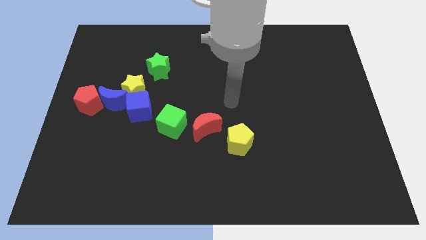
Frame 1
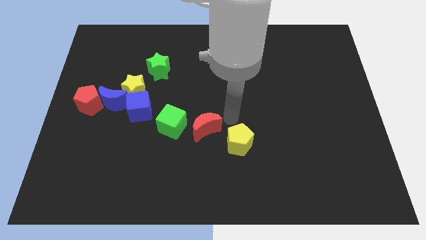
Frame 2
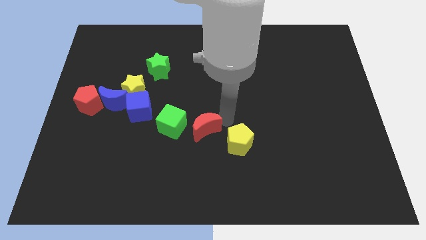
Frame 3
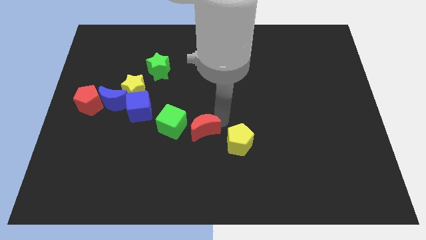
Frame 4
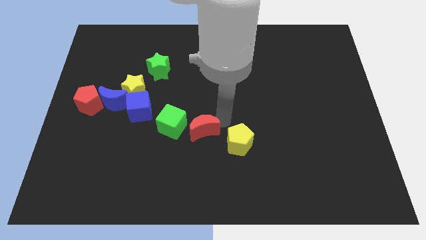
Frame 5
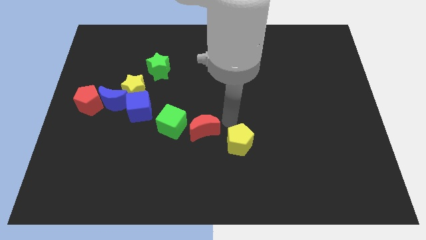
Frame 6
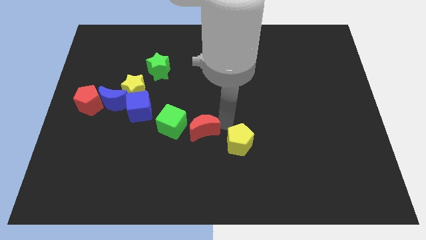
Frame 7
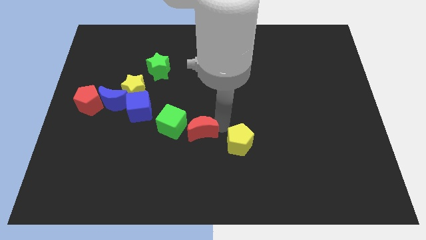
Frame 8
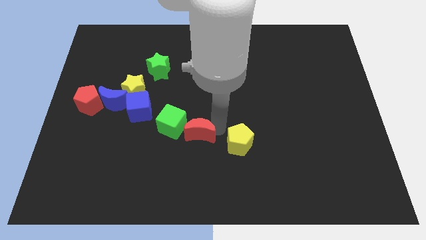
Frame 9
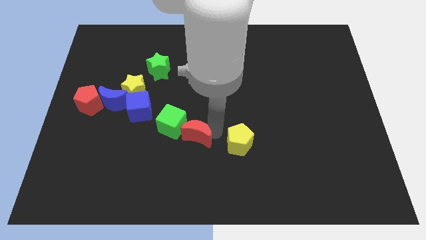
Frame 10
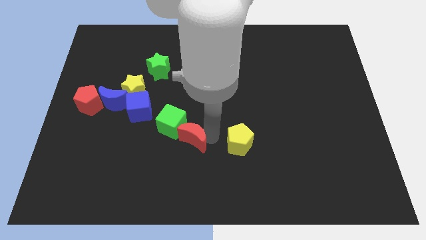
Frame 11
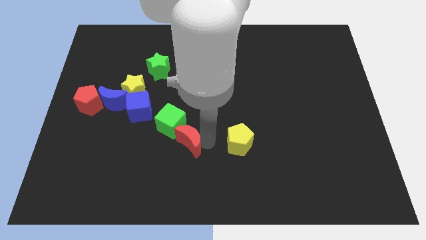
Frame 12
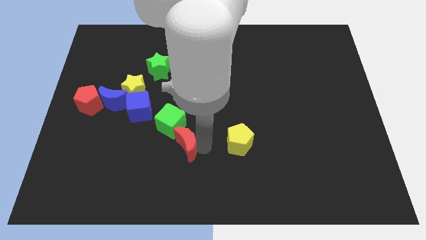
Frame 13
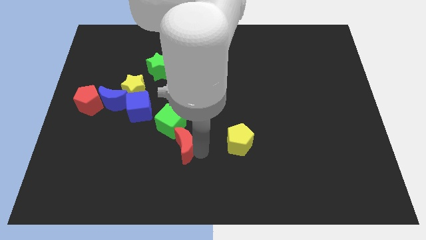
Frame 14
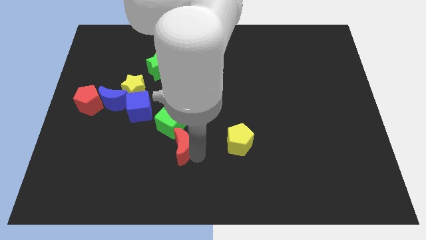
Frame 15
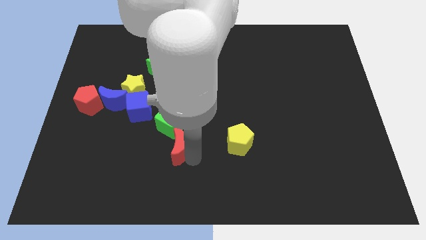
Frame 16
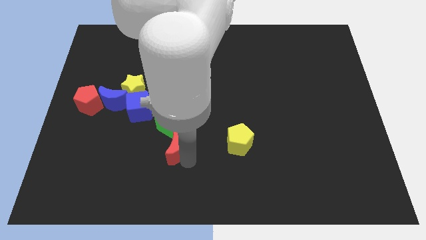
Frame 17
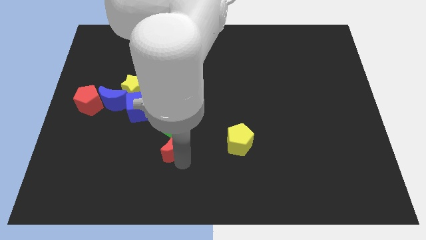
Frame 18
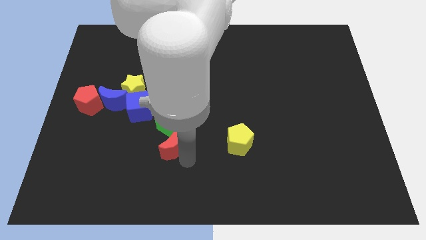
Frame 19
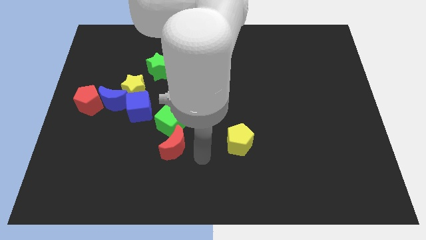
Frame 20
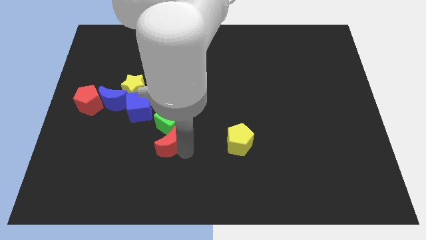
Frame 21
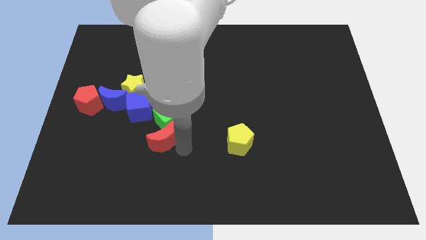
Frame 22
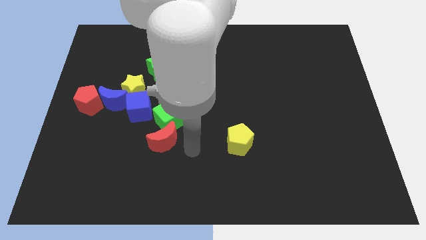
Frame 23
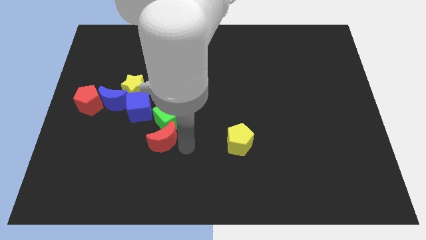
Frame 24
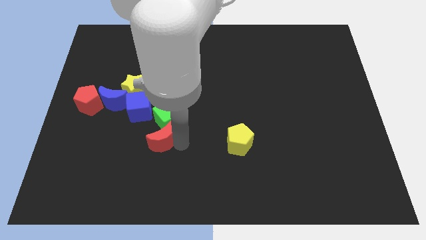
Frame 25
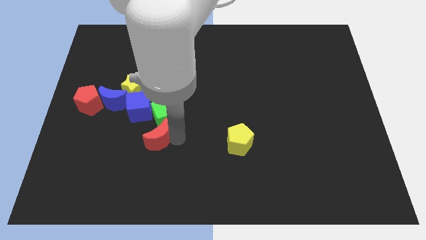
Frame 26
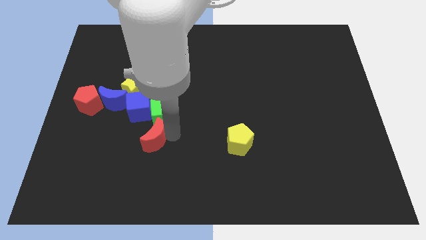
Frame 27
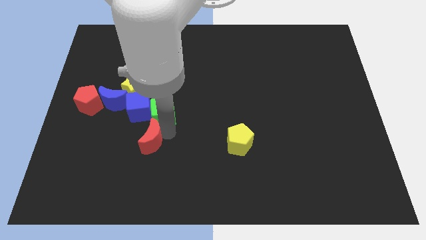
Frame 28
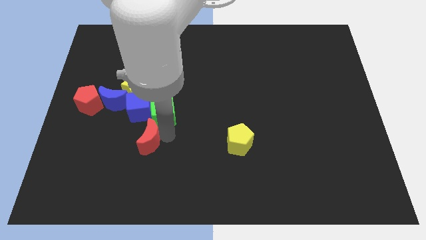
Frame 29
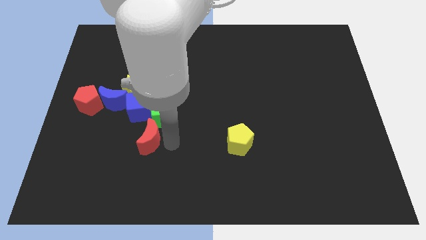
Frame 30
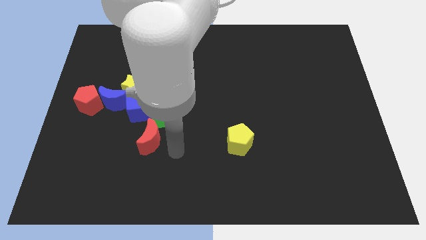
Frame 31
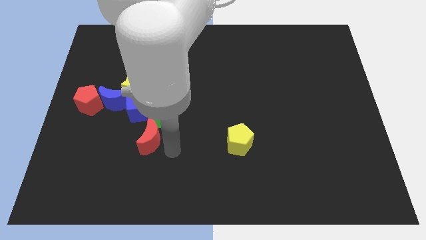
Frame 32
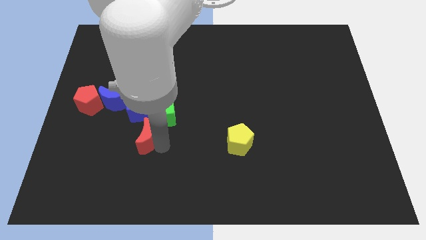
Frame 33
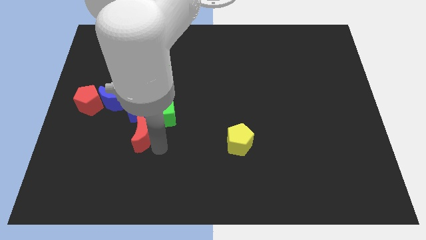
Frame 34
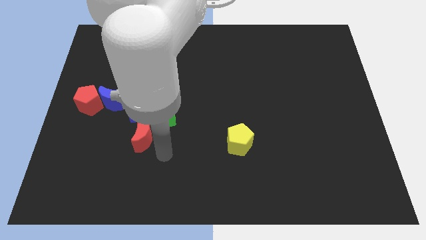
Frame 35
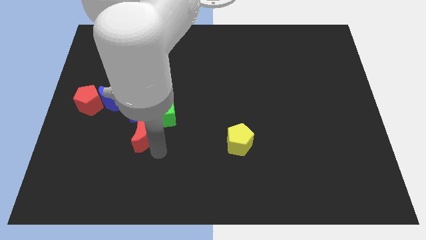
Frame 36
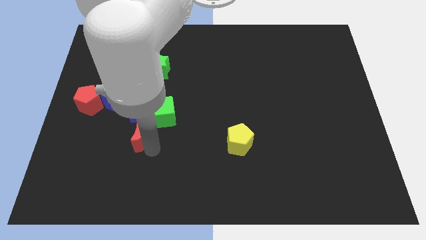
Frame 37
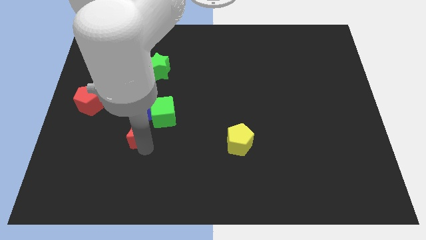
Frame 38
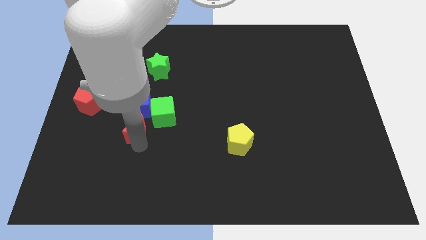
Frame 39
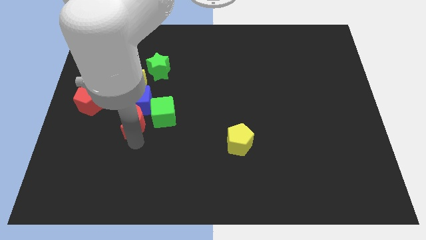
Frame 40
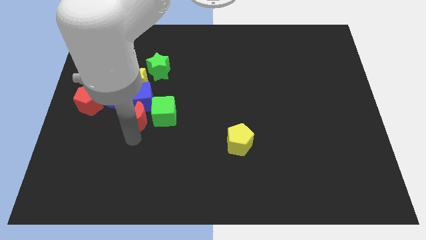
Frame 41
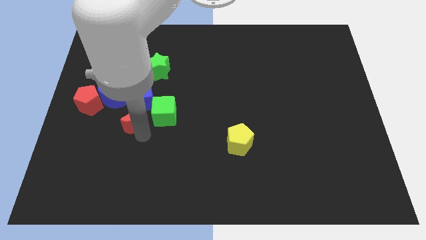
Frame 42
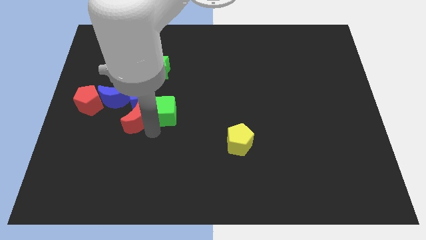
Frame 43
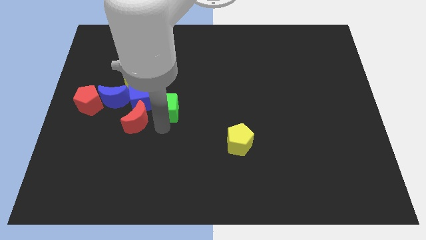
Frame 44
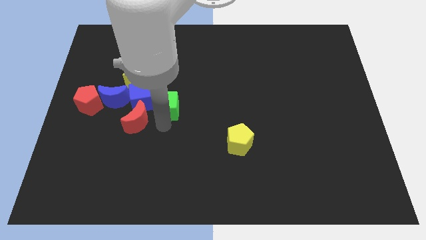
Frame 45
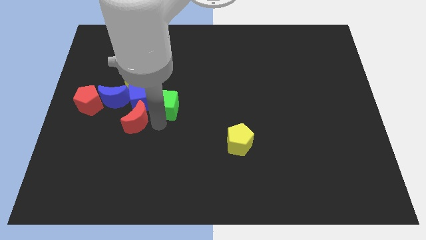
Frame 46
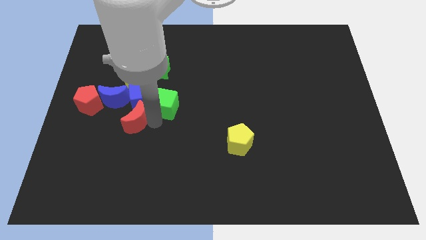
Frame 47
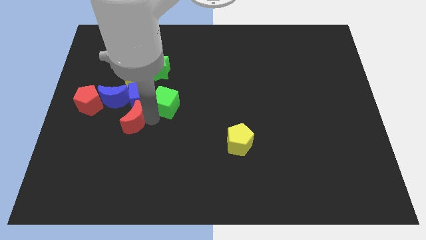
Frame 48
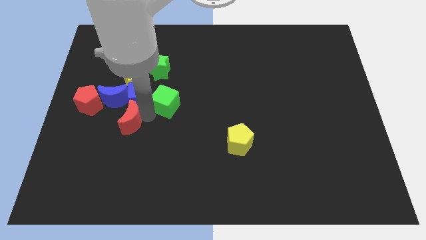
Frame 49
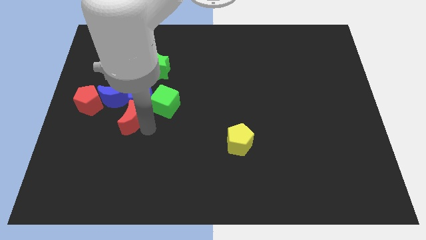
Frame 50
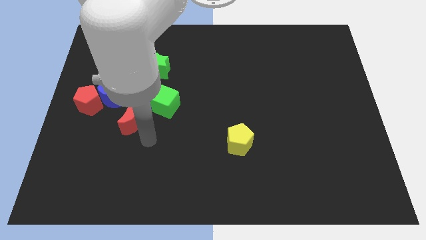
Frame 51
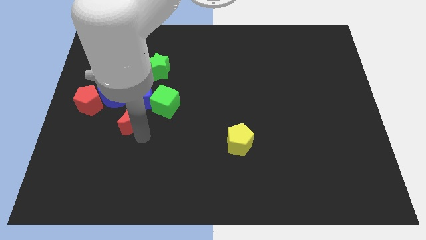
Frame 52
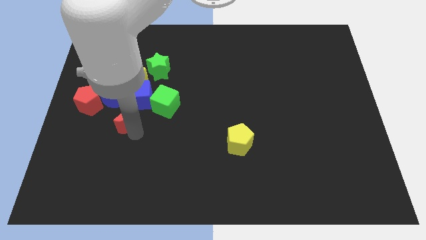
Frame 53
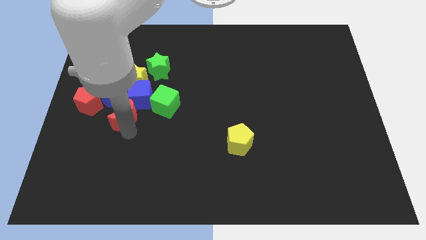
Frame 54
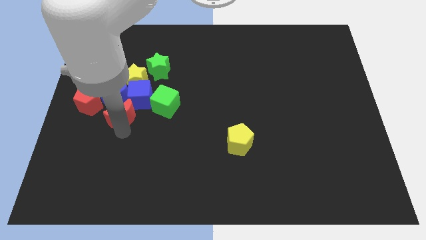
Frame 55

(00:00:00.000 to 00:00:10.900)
slide the red moon towards the blue moon

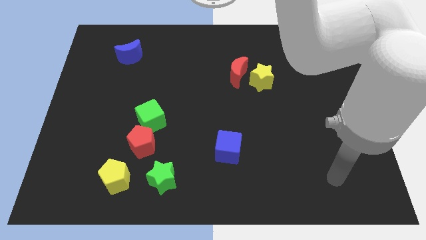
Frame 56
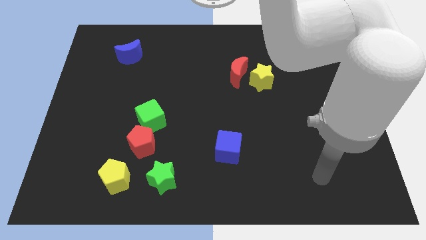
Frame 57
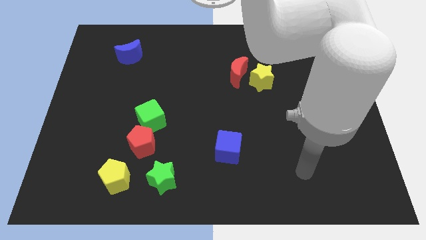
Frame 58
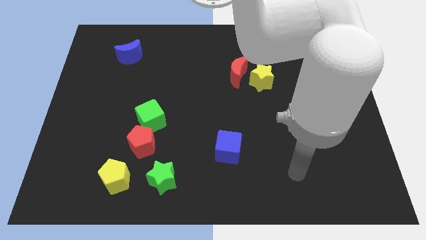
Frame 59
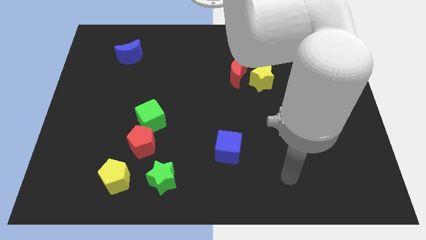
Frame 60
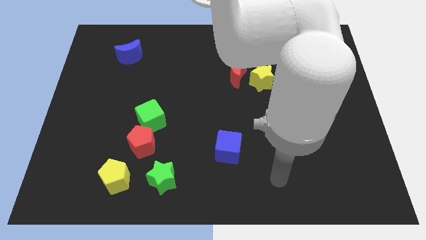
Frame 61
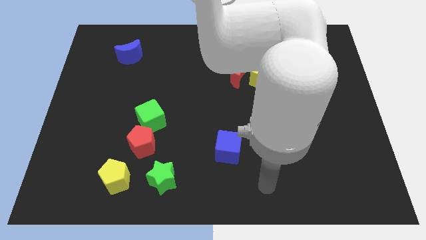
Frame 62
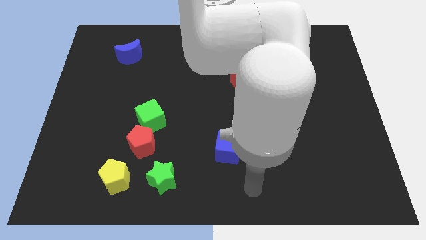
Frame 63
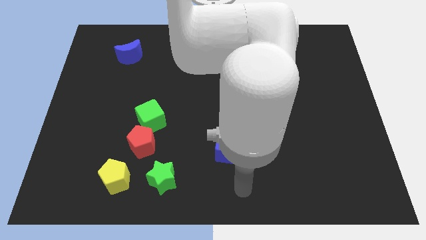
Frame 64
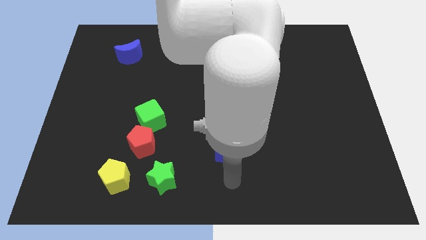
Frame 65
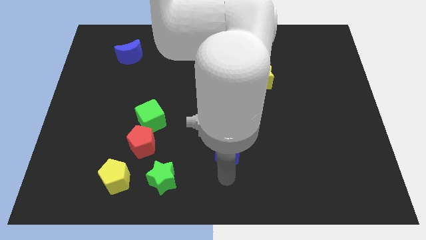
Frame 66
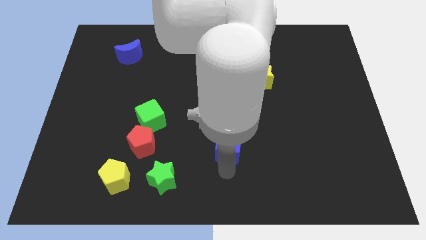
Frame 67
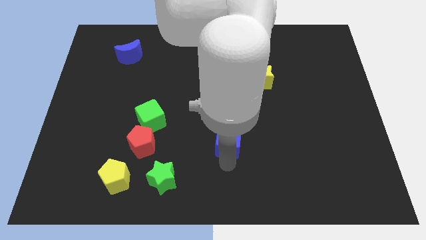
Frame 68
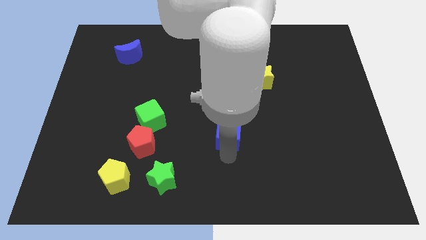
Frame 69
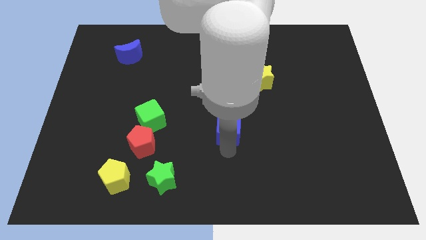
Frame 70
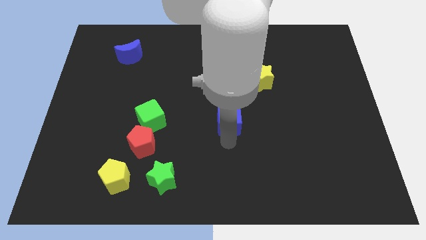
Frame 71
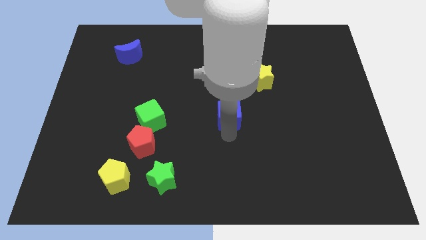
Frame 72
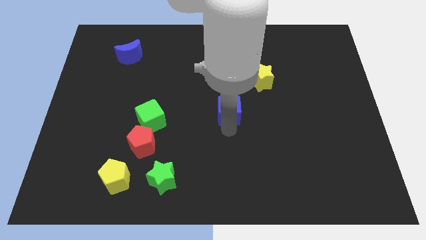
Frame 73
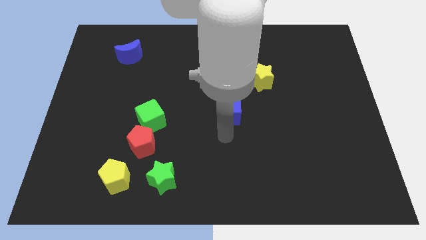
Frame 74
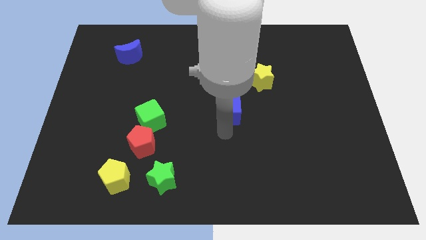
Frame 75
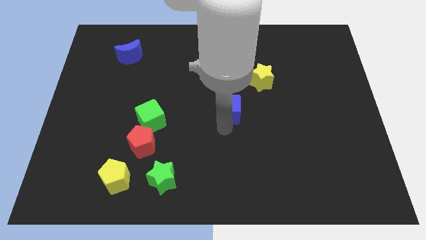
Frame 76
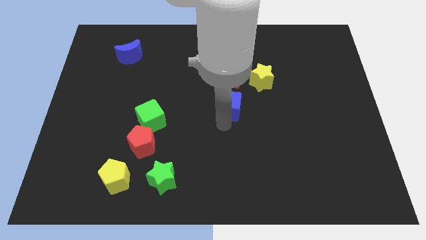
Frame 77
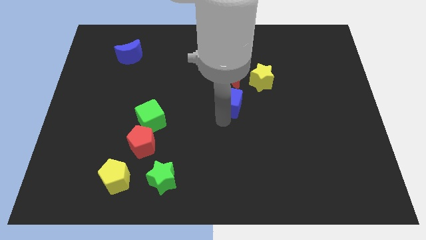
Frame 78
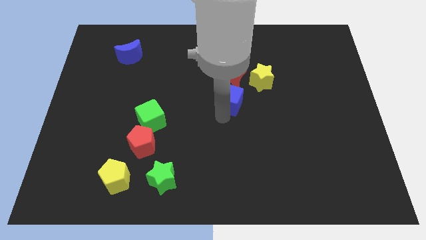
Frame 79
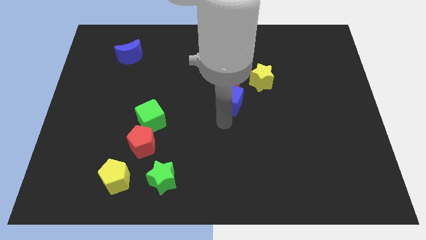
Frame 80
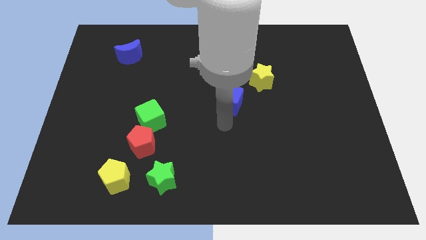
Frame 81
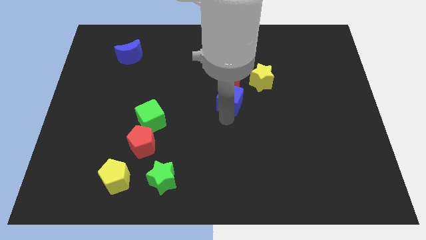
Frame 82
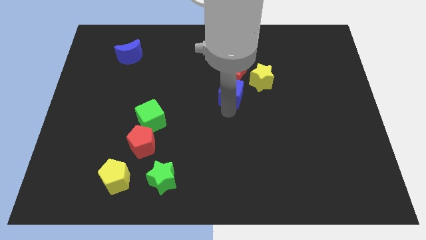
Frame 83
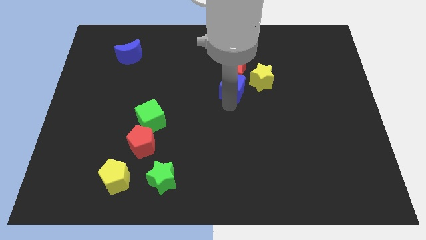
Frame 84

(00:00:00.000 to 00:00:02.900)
move the blue cube to the red moon
